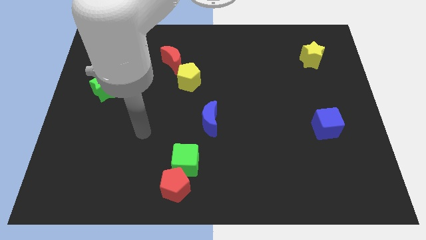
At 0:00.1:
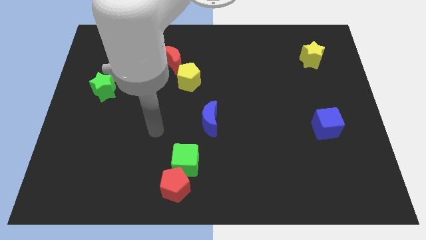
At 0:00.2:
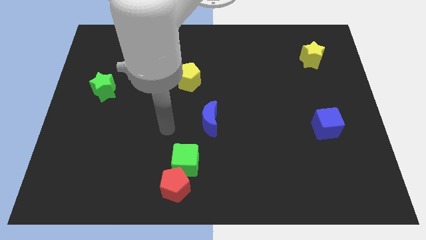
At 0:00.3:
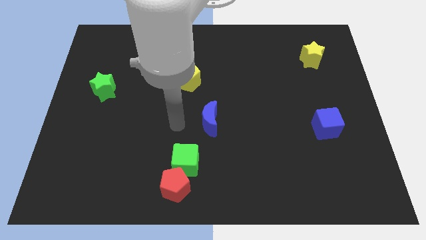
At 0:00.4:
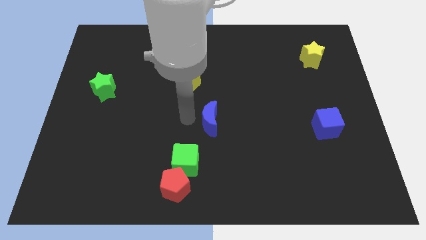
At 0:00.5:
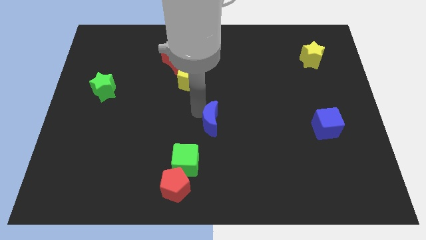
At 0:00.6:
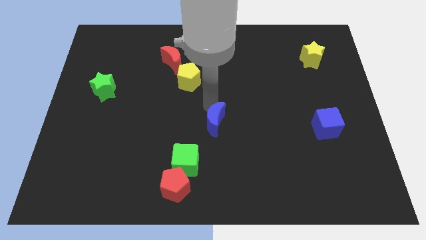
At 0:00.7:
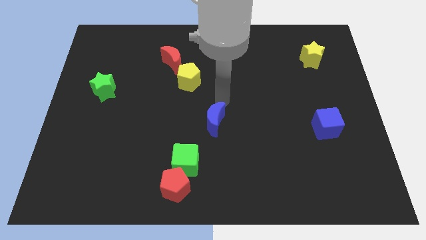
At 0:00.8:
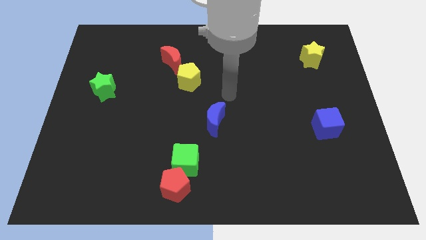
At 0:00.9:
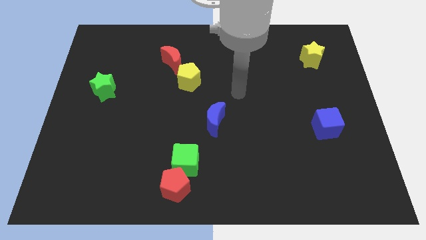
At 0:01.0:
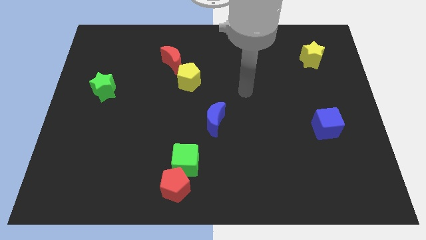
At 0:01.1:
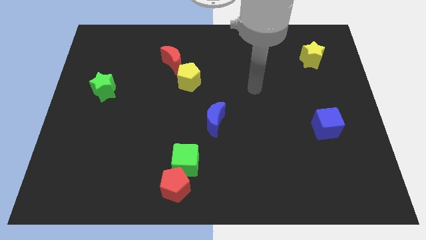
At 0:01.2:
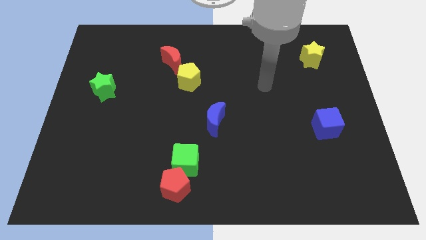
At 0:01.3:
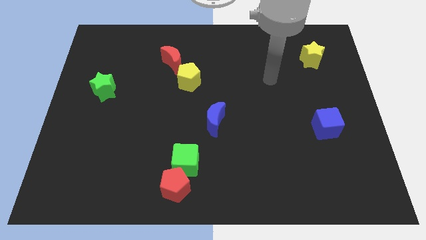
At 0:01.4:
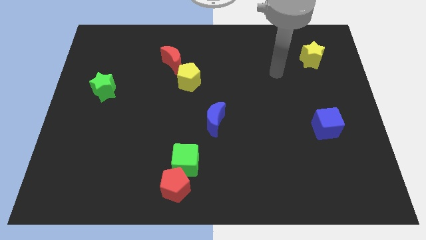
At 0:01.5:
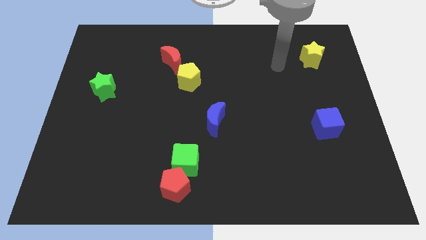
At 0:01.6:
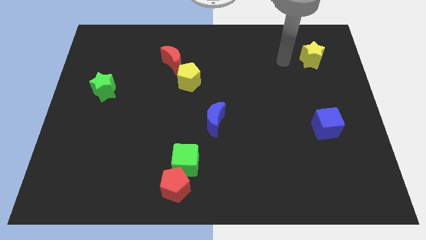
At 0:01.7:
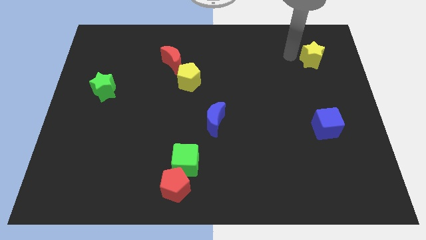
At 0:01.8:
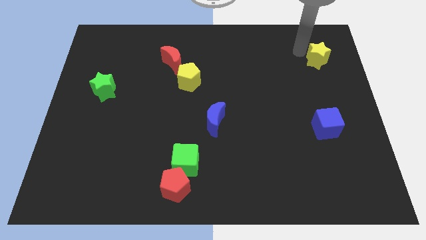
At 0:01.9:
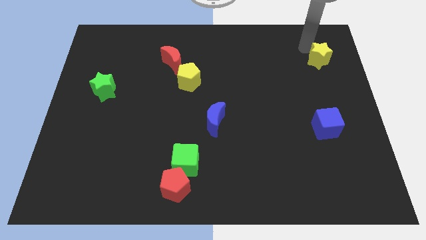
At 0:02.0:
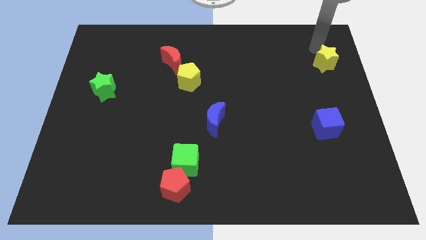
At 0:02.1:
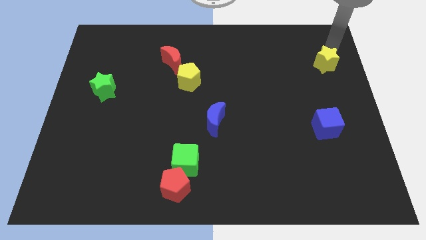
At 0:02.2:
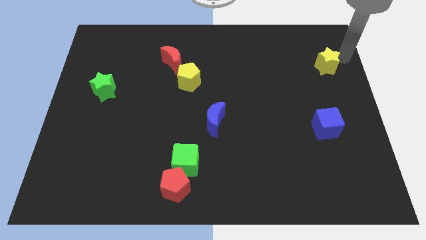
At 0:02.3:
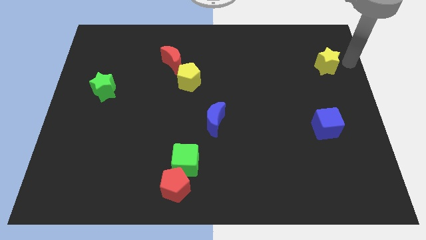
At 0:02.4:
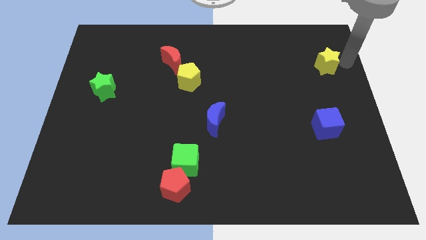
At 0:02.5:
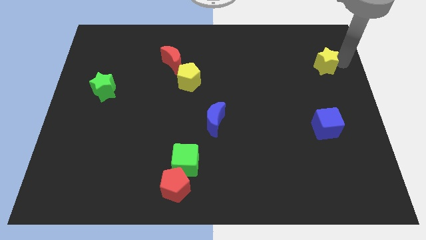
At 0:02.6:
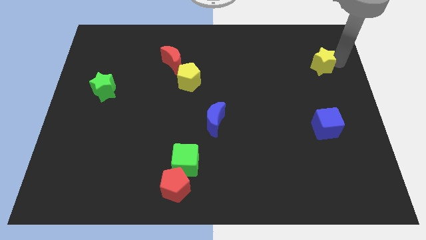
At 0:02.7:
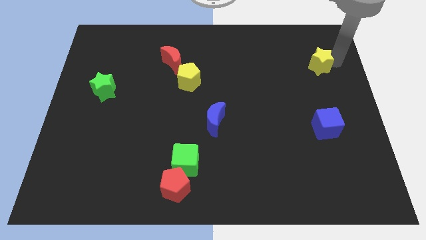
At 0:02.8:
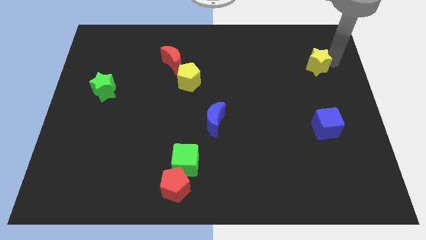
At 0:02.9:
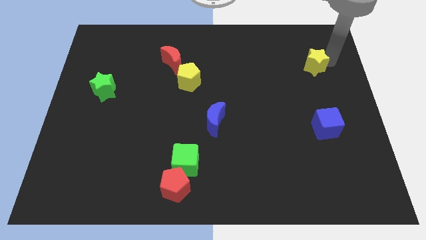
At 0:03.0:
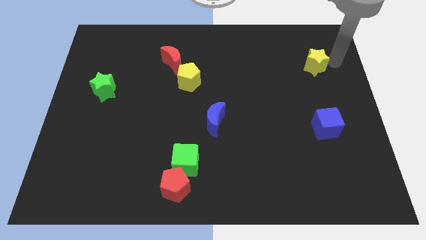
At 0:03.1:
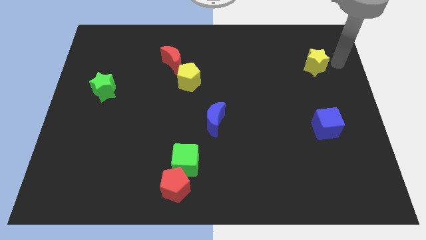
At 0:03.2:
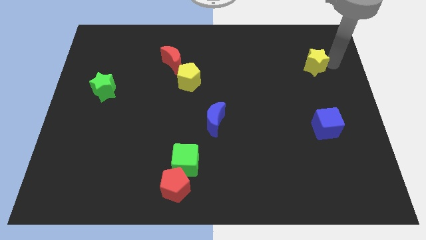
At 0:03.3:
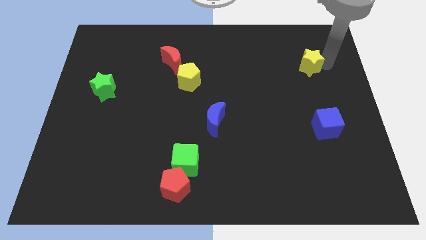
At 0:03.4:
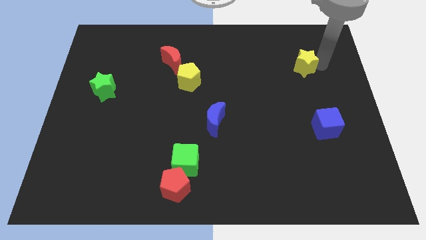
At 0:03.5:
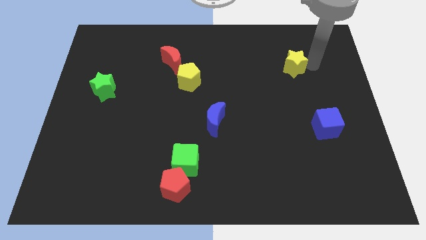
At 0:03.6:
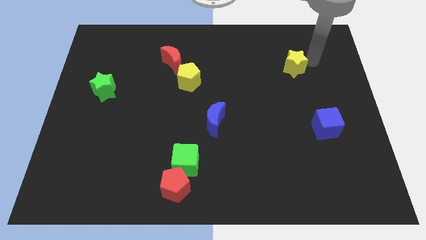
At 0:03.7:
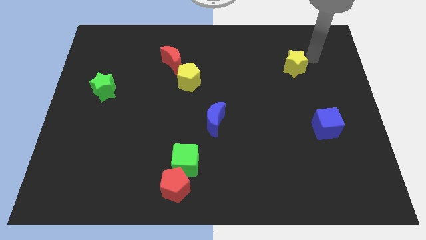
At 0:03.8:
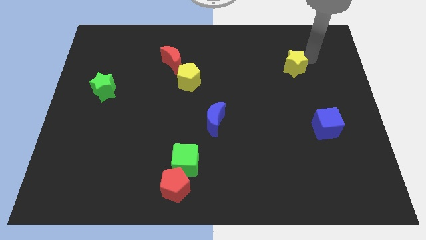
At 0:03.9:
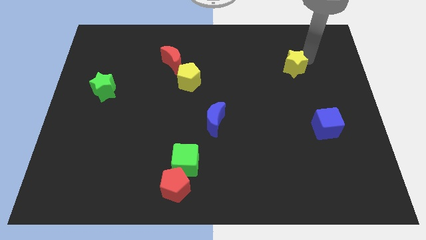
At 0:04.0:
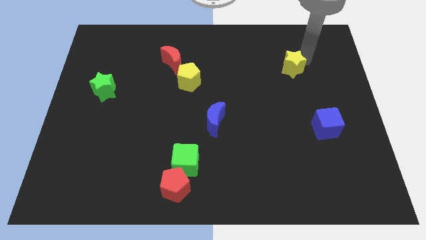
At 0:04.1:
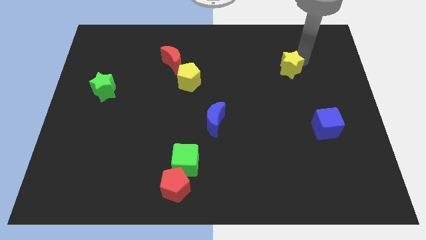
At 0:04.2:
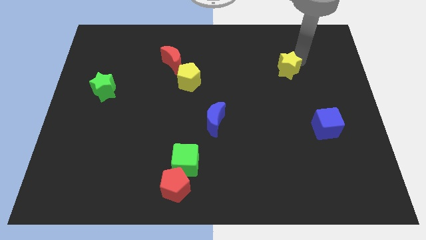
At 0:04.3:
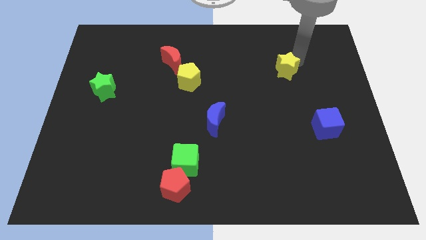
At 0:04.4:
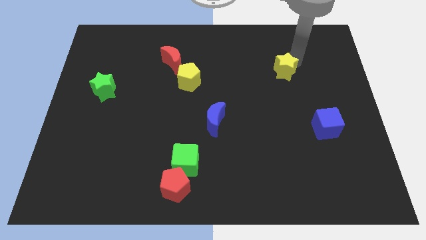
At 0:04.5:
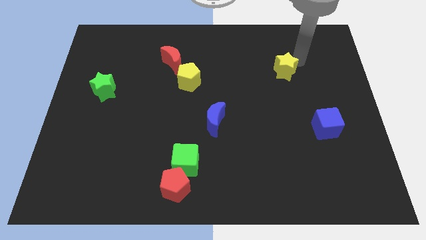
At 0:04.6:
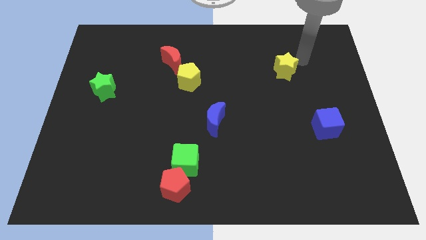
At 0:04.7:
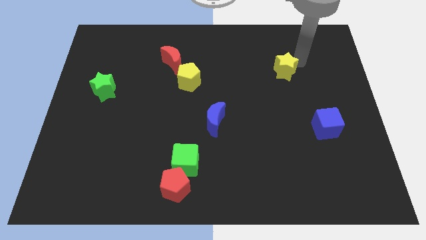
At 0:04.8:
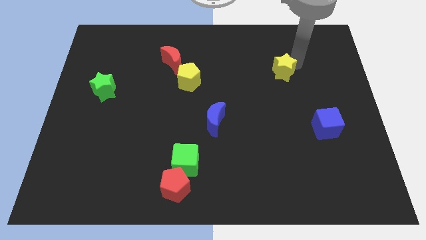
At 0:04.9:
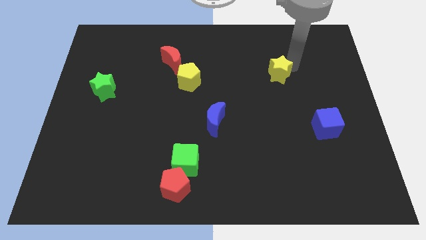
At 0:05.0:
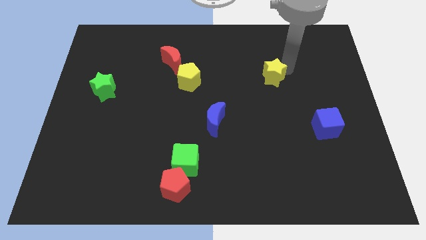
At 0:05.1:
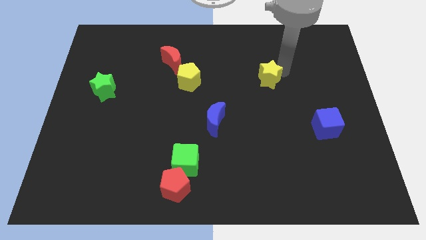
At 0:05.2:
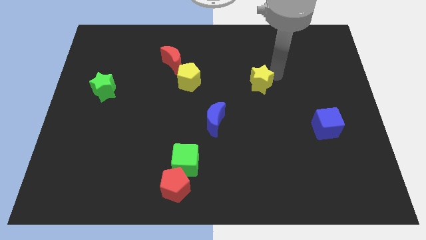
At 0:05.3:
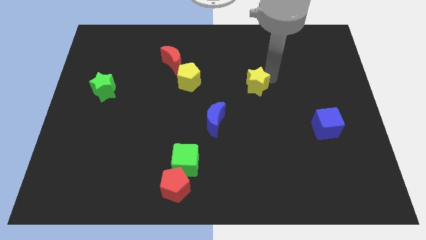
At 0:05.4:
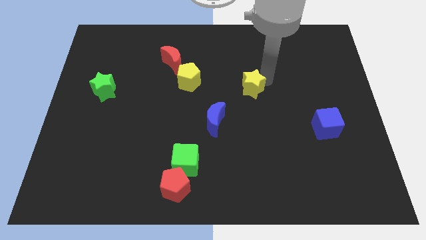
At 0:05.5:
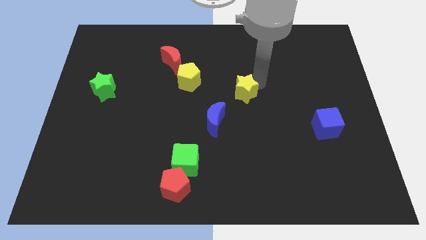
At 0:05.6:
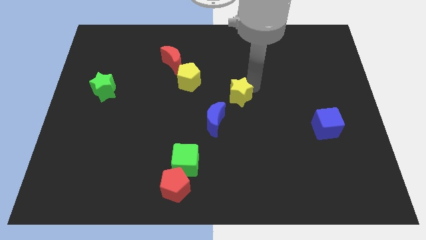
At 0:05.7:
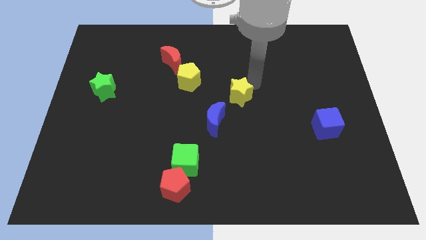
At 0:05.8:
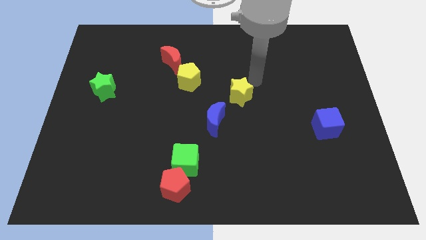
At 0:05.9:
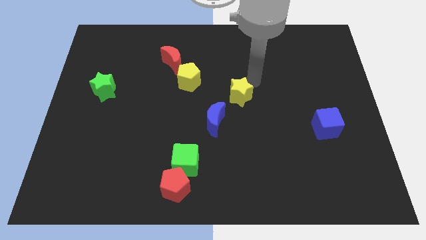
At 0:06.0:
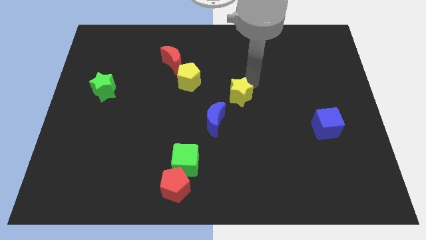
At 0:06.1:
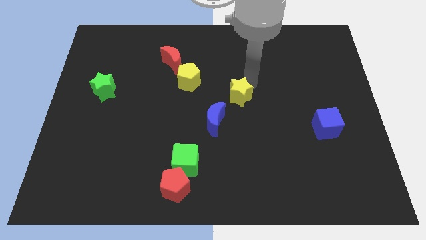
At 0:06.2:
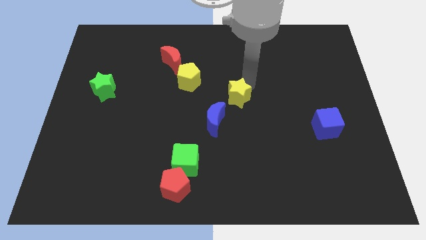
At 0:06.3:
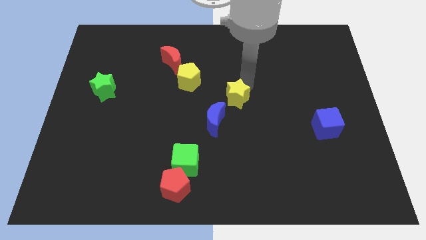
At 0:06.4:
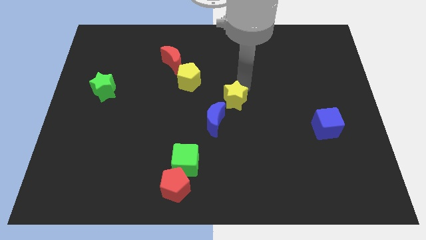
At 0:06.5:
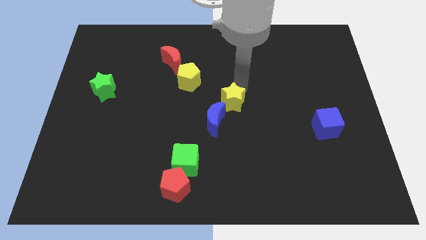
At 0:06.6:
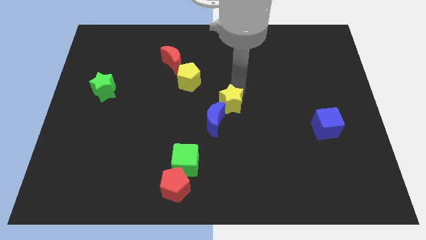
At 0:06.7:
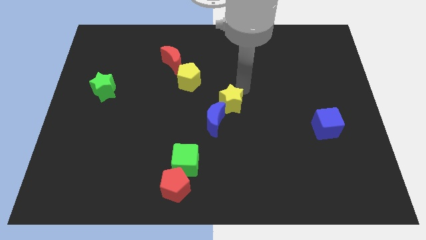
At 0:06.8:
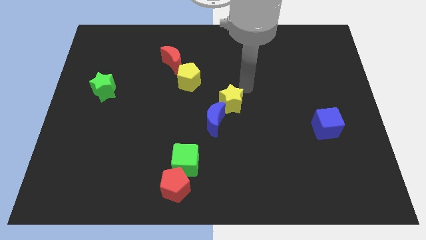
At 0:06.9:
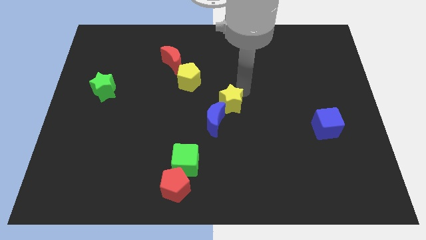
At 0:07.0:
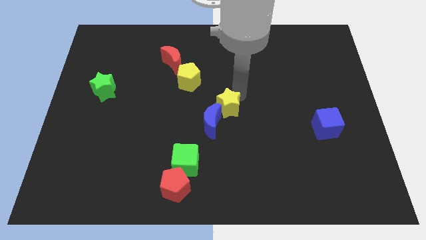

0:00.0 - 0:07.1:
move the yellow star close to the blue moon

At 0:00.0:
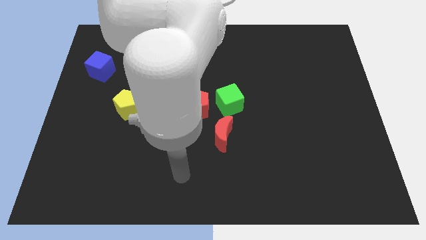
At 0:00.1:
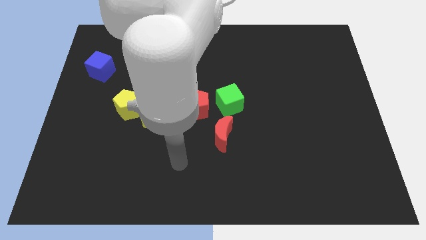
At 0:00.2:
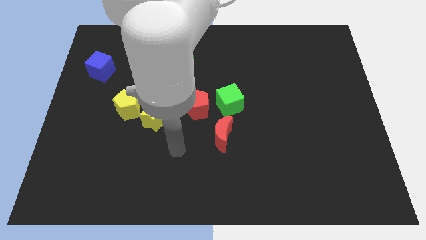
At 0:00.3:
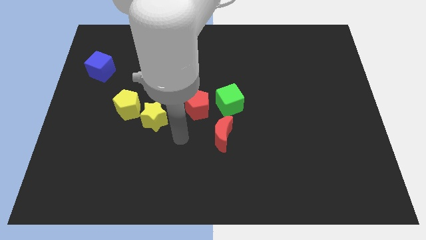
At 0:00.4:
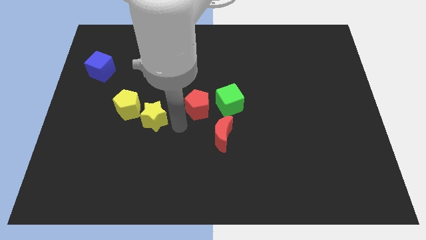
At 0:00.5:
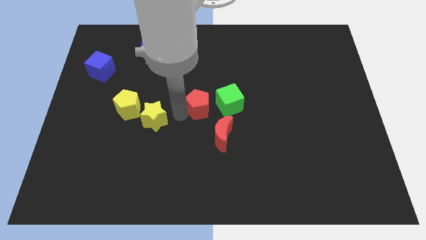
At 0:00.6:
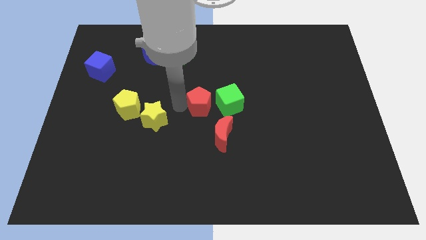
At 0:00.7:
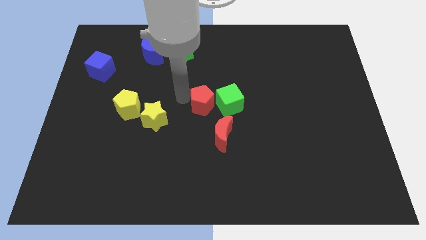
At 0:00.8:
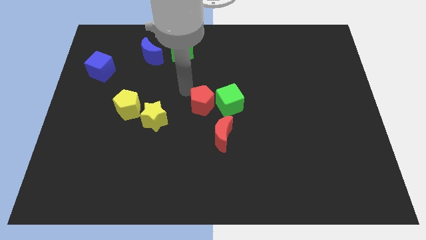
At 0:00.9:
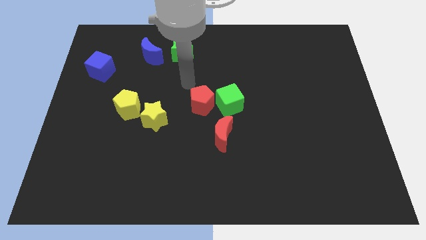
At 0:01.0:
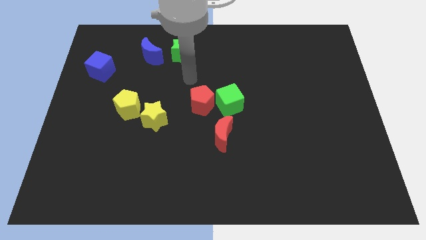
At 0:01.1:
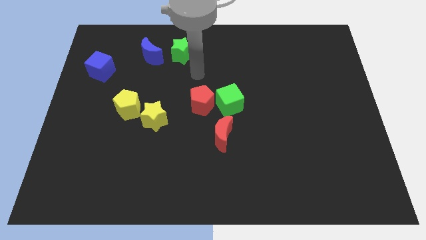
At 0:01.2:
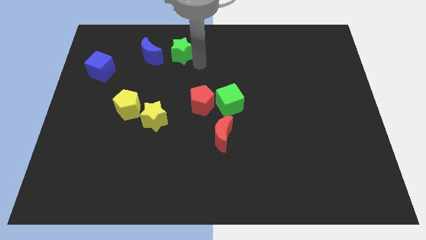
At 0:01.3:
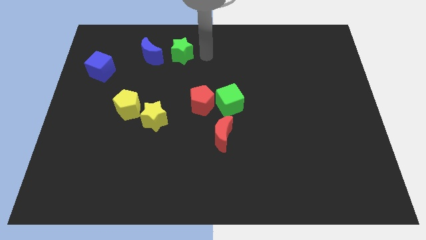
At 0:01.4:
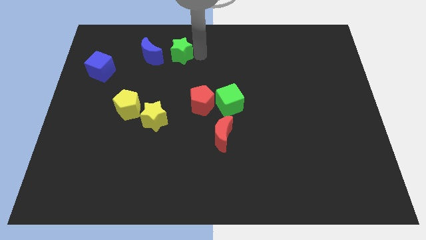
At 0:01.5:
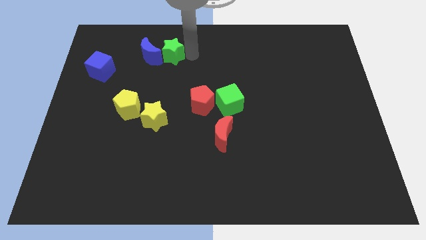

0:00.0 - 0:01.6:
move the green star next to the blue moon
